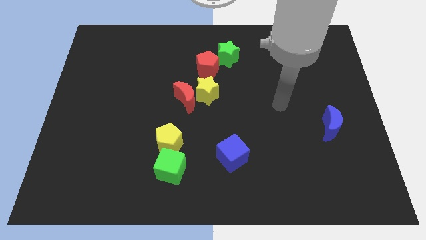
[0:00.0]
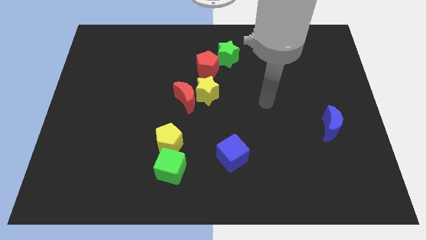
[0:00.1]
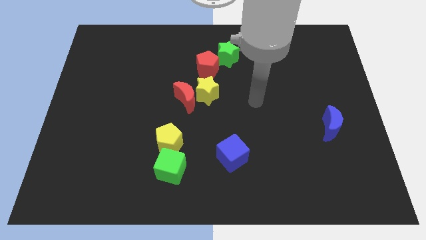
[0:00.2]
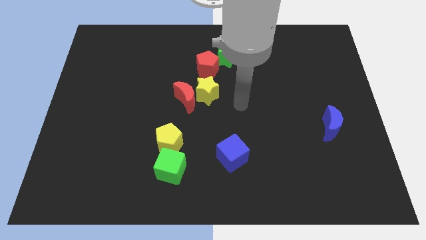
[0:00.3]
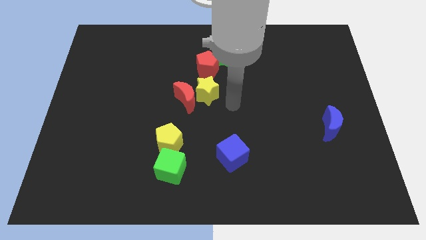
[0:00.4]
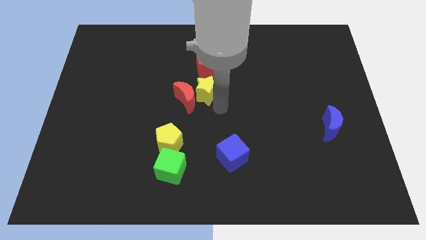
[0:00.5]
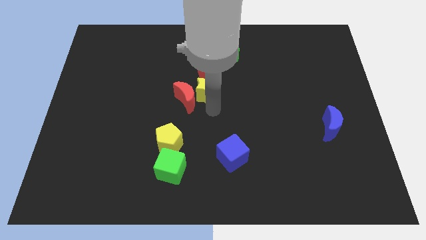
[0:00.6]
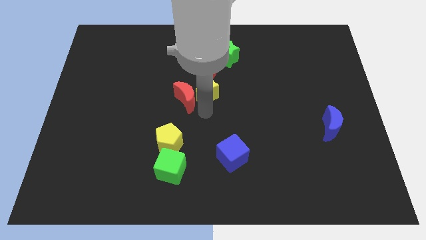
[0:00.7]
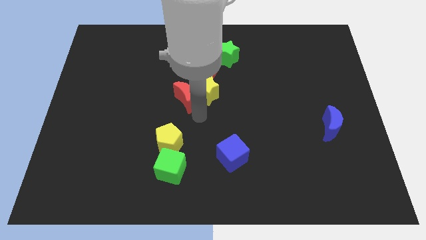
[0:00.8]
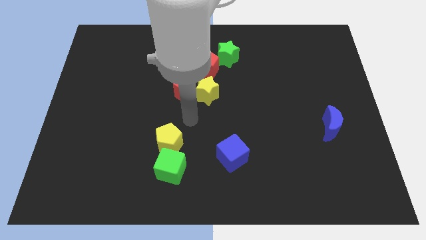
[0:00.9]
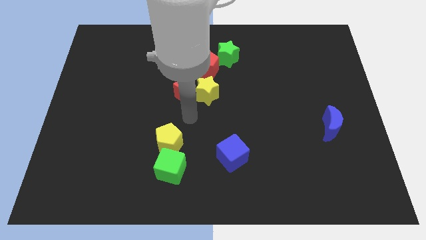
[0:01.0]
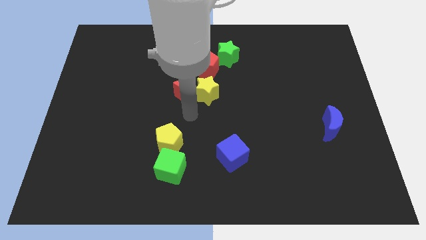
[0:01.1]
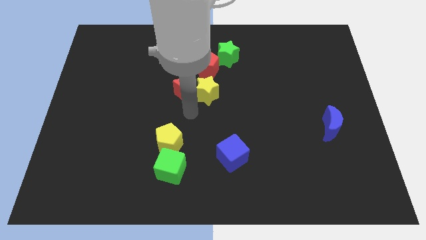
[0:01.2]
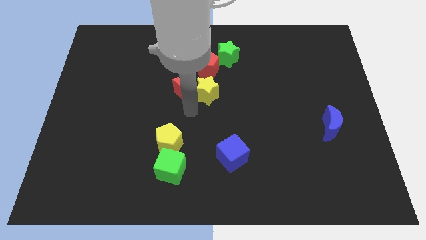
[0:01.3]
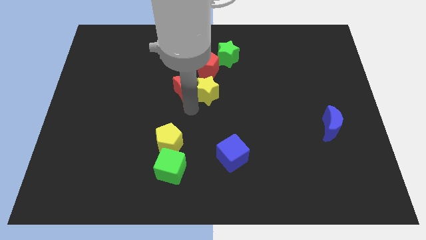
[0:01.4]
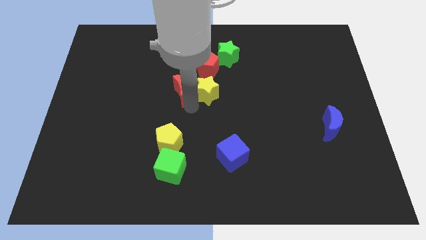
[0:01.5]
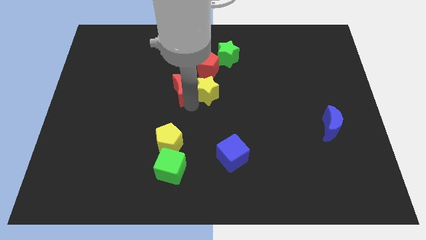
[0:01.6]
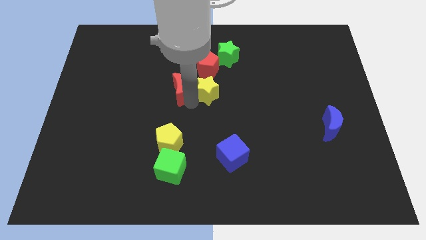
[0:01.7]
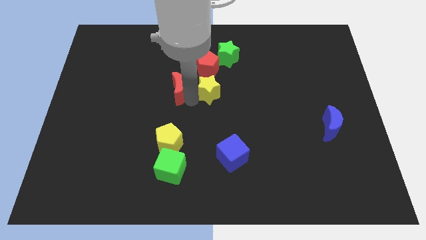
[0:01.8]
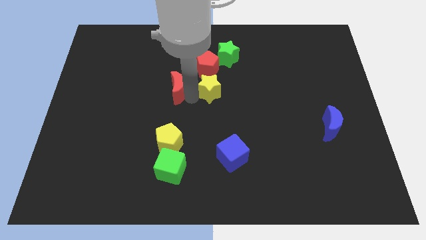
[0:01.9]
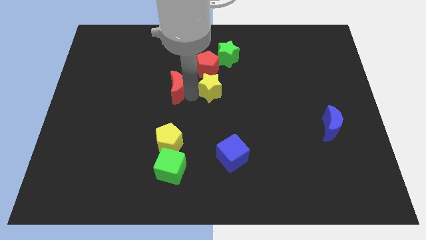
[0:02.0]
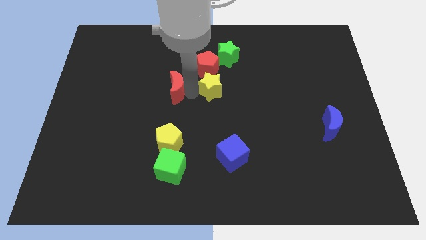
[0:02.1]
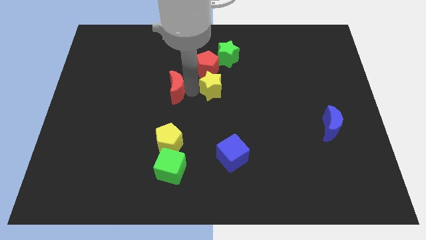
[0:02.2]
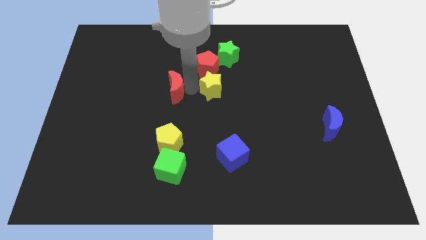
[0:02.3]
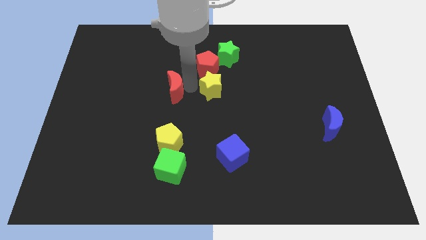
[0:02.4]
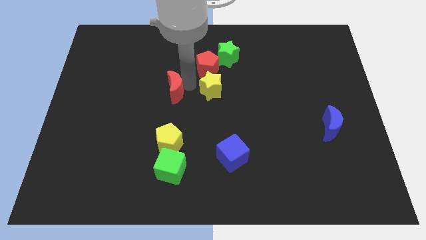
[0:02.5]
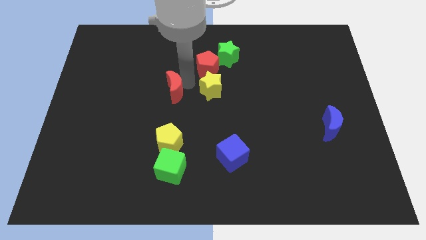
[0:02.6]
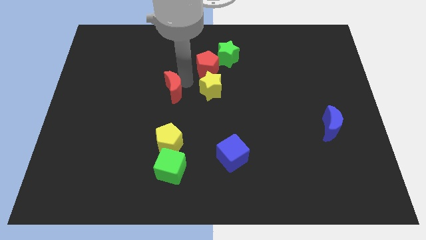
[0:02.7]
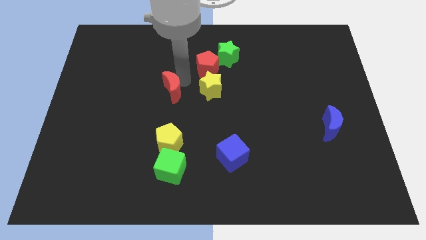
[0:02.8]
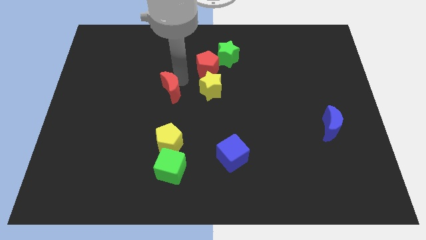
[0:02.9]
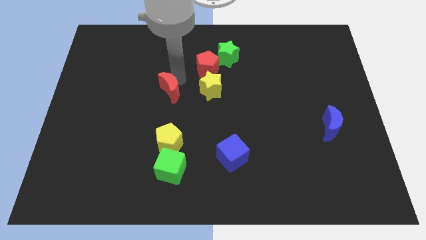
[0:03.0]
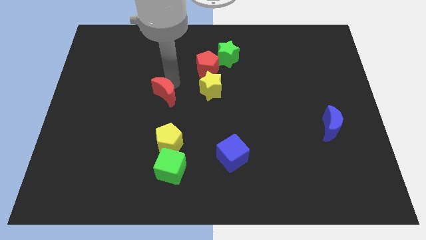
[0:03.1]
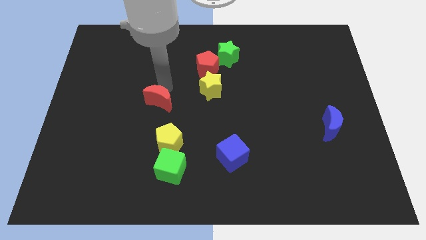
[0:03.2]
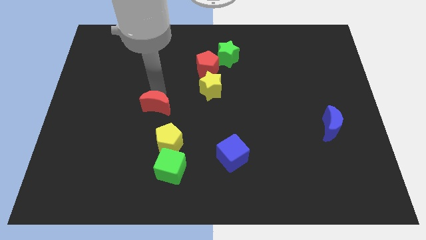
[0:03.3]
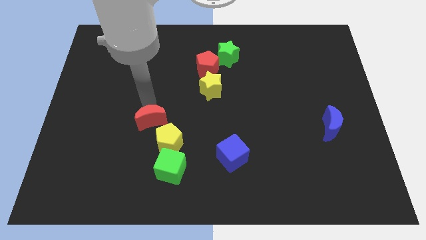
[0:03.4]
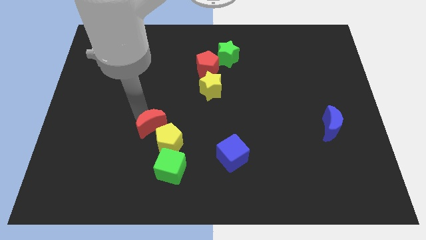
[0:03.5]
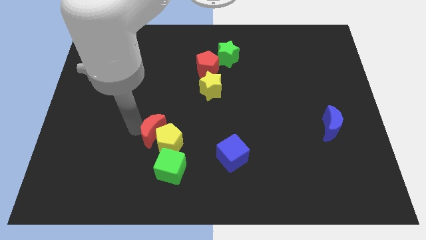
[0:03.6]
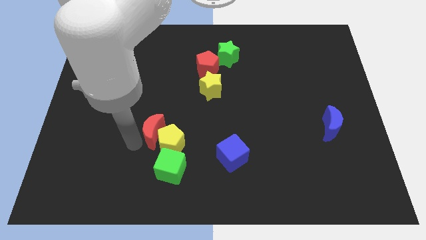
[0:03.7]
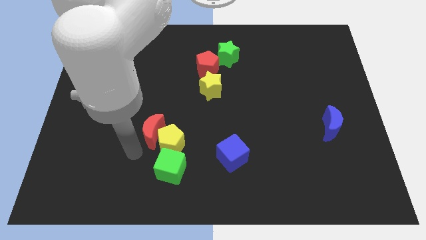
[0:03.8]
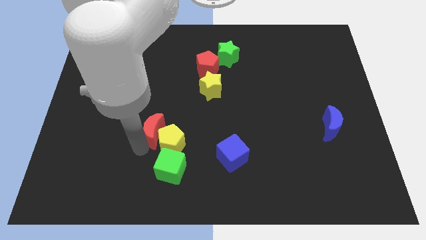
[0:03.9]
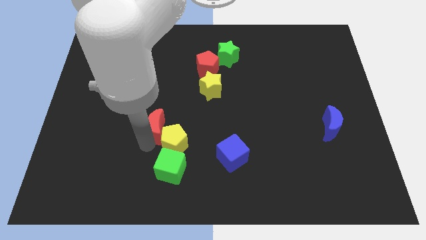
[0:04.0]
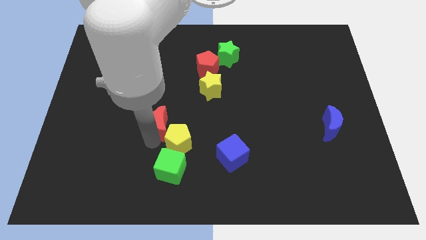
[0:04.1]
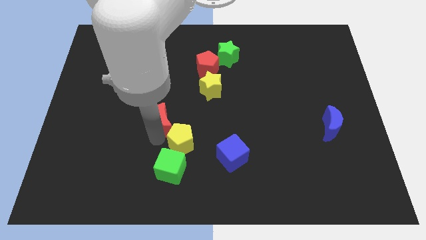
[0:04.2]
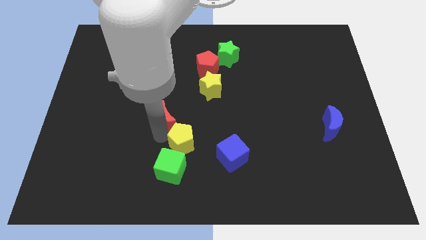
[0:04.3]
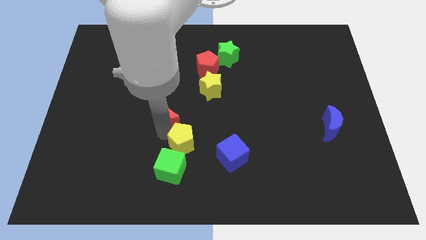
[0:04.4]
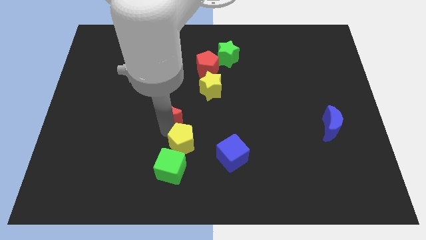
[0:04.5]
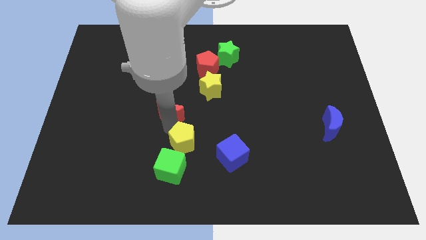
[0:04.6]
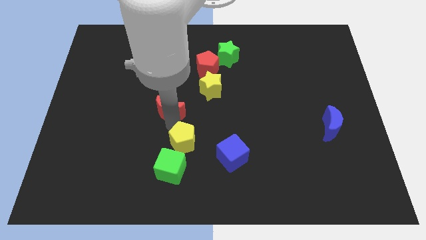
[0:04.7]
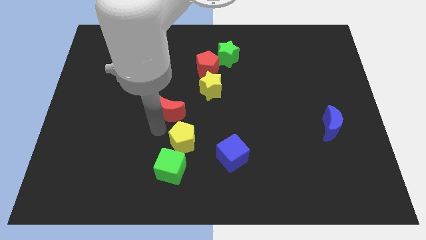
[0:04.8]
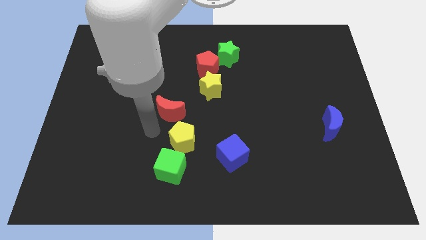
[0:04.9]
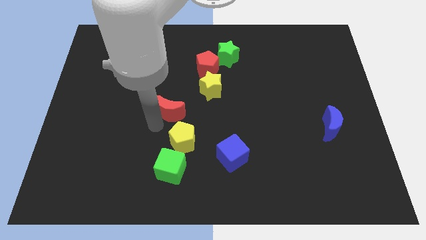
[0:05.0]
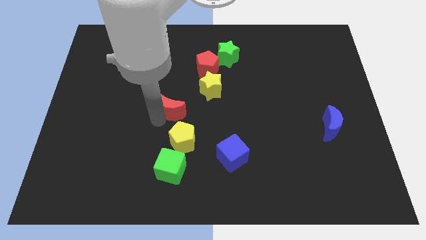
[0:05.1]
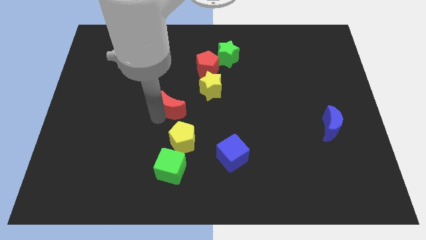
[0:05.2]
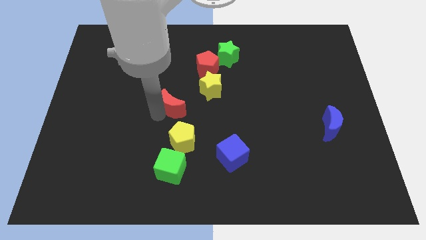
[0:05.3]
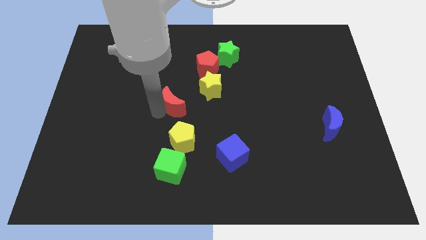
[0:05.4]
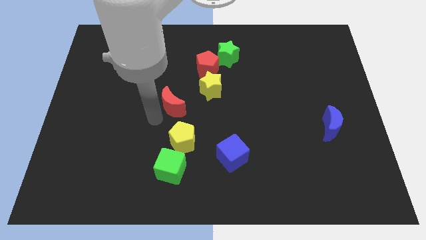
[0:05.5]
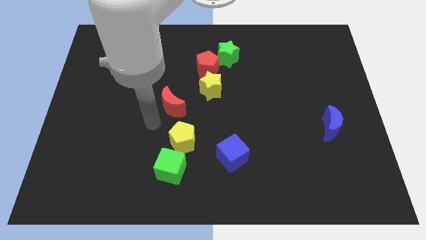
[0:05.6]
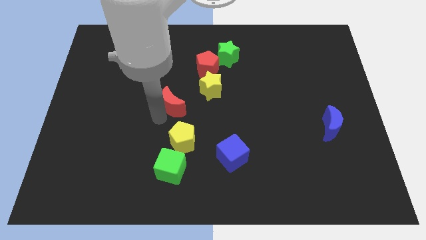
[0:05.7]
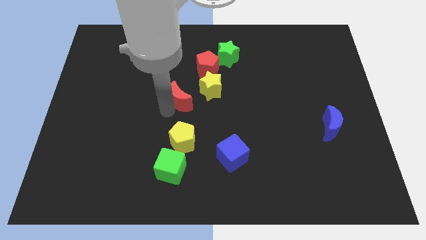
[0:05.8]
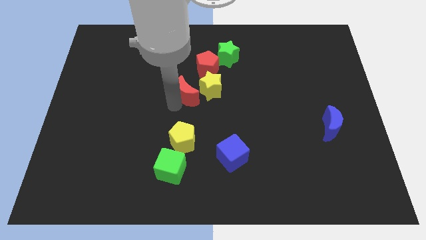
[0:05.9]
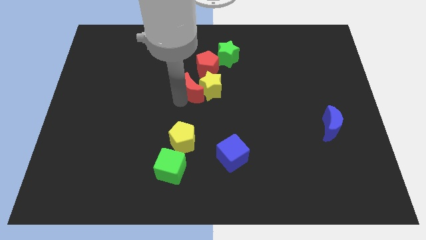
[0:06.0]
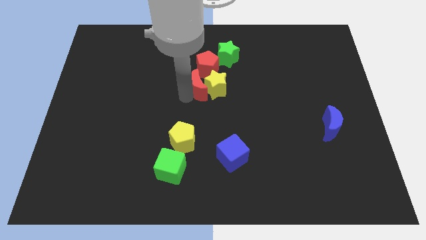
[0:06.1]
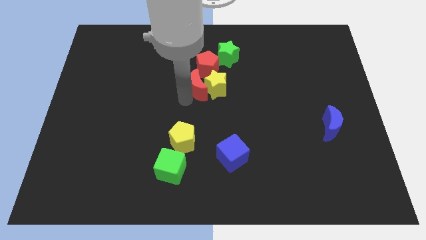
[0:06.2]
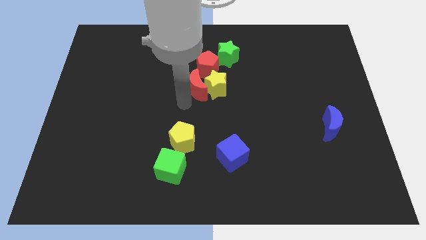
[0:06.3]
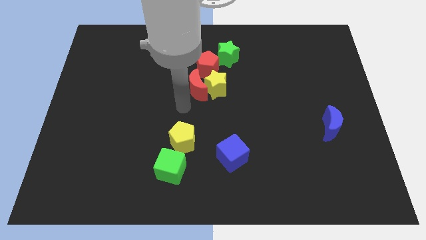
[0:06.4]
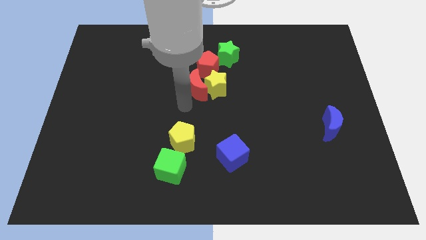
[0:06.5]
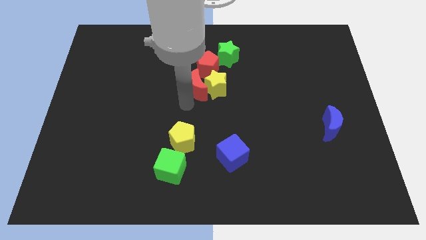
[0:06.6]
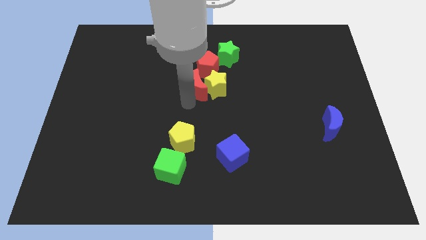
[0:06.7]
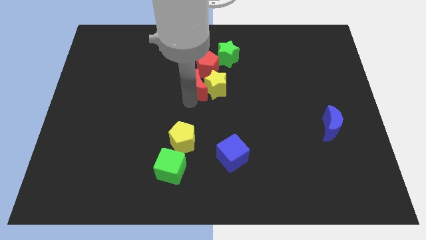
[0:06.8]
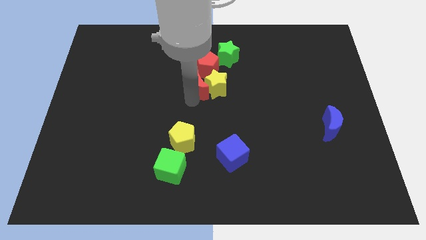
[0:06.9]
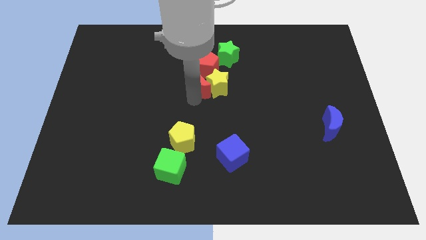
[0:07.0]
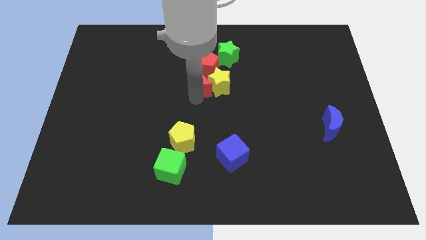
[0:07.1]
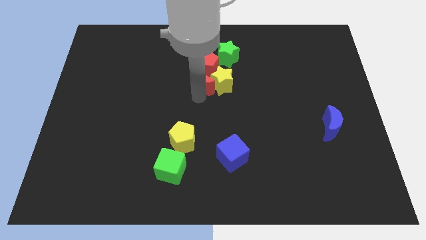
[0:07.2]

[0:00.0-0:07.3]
slide the red moon next to the red pentagon
